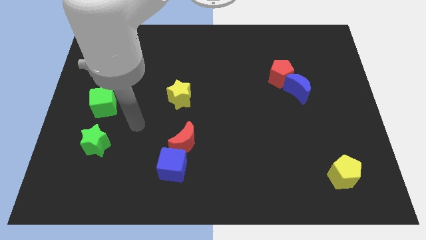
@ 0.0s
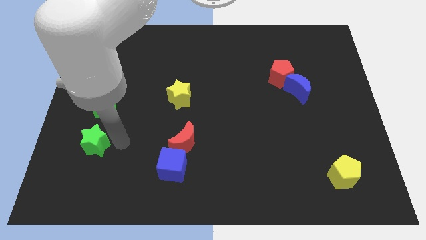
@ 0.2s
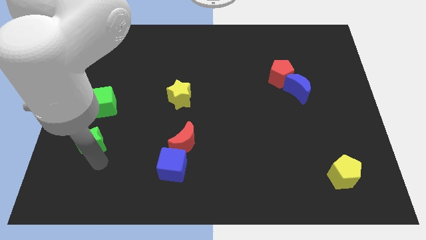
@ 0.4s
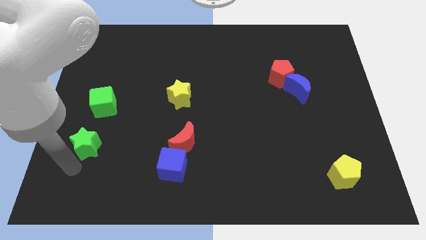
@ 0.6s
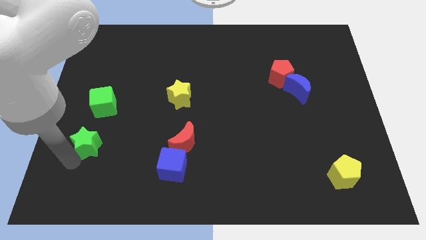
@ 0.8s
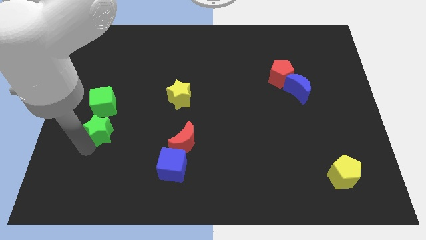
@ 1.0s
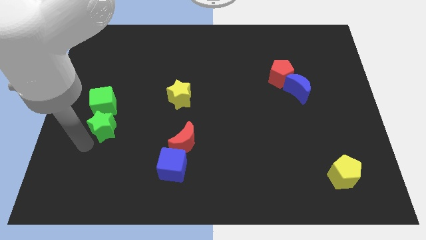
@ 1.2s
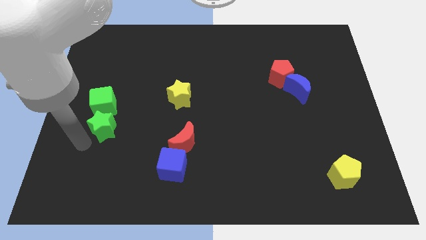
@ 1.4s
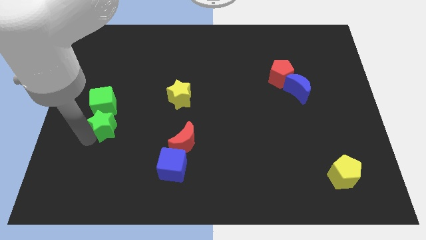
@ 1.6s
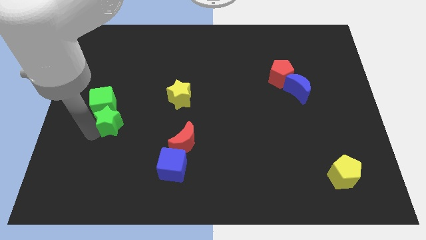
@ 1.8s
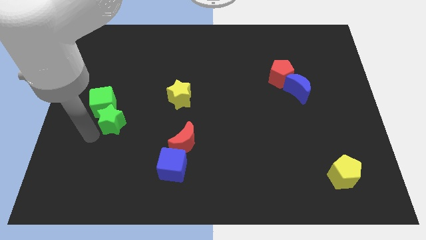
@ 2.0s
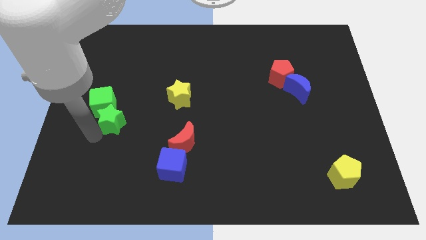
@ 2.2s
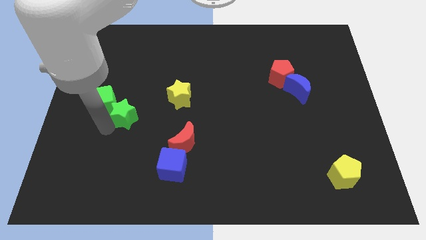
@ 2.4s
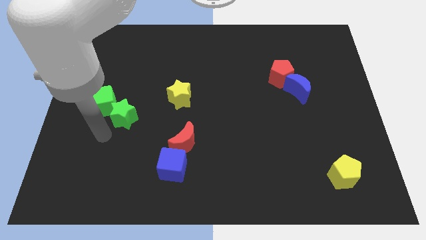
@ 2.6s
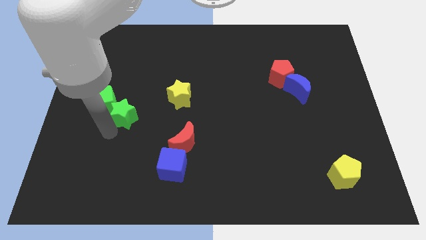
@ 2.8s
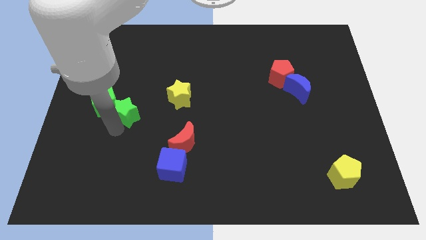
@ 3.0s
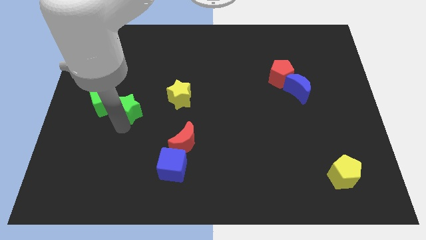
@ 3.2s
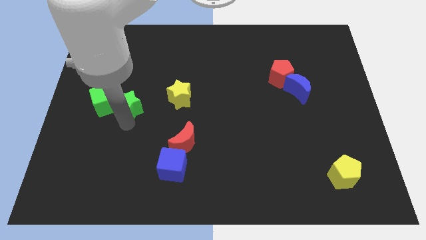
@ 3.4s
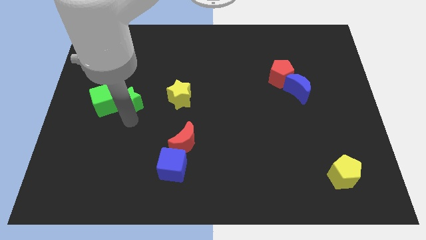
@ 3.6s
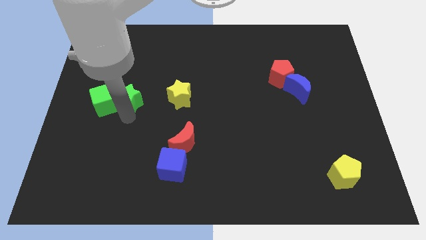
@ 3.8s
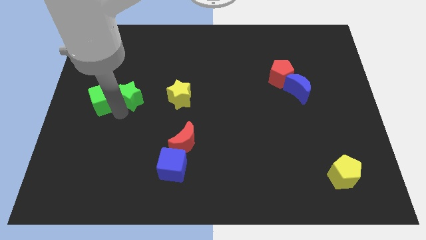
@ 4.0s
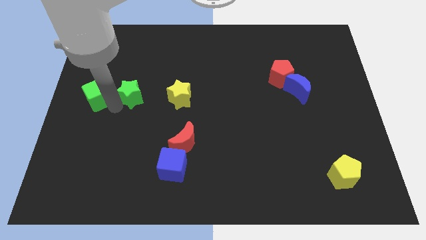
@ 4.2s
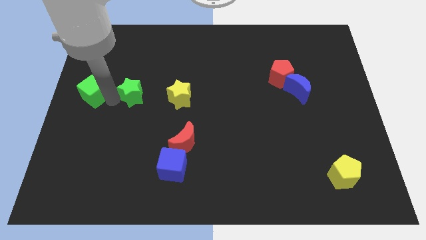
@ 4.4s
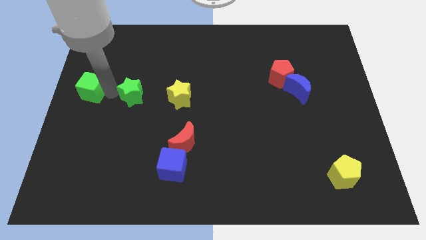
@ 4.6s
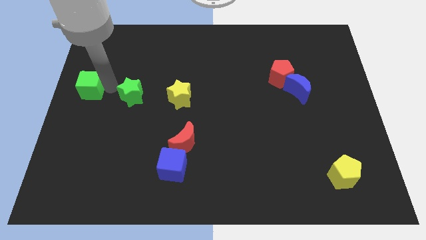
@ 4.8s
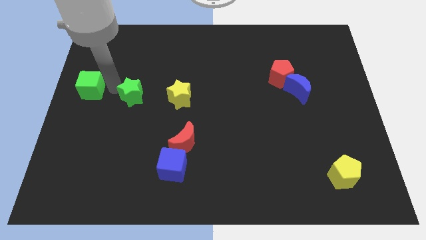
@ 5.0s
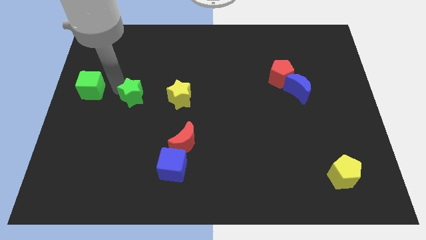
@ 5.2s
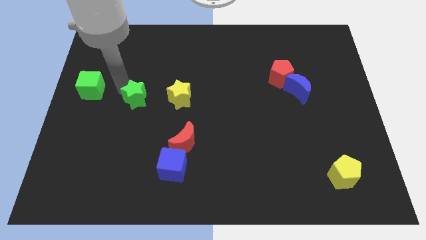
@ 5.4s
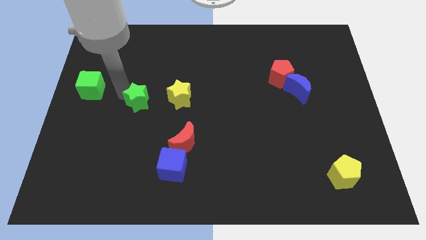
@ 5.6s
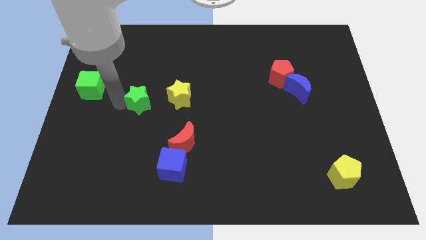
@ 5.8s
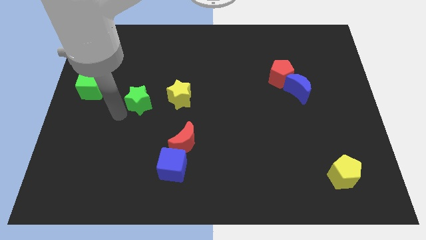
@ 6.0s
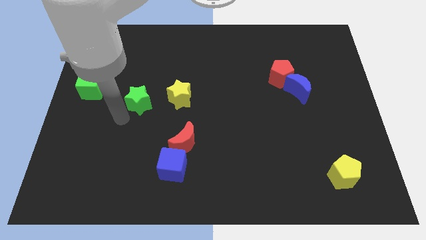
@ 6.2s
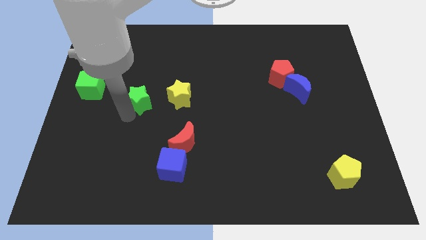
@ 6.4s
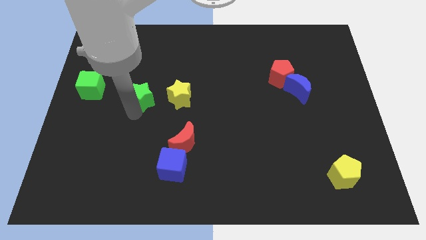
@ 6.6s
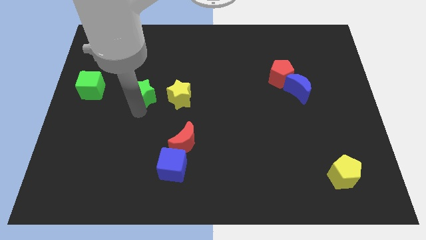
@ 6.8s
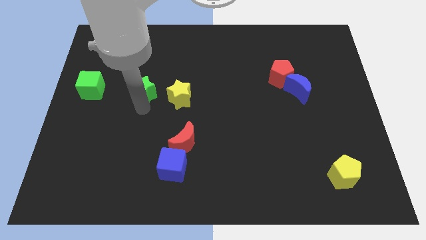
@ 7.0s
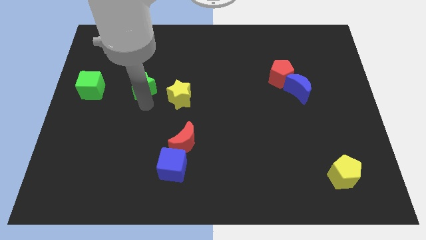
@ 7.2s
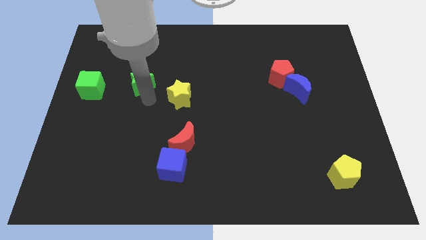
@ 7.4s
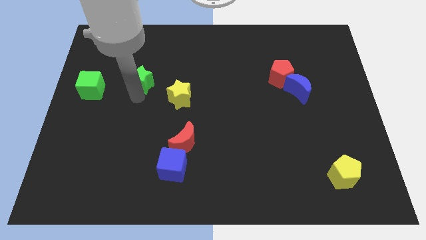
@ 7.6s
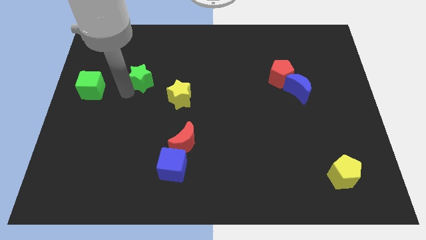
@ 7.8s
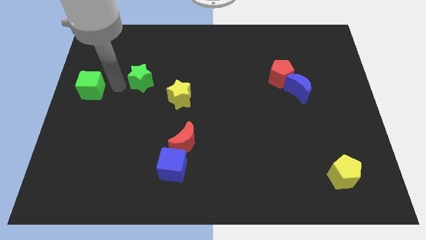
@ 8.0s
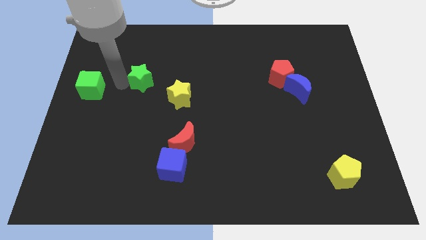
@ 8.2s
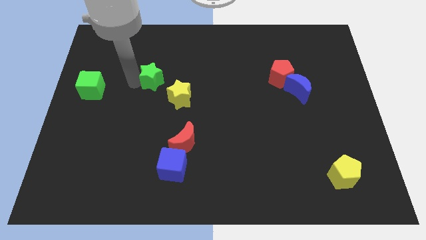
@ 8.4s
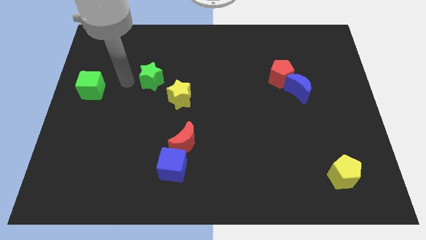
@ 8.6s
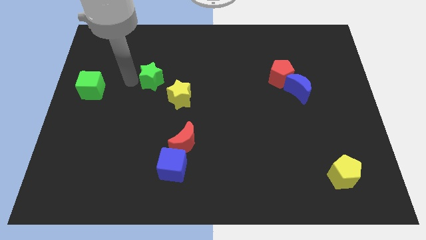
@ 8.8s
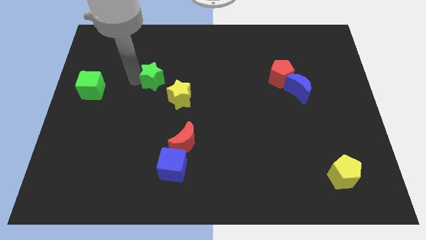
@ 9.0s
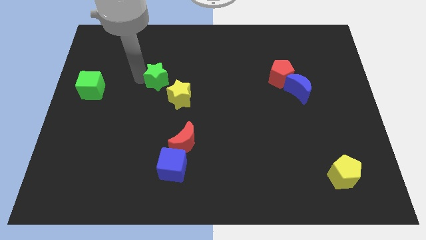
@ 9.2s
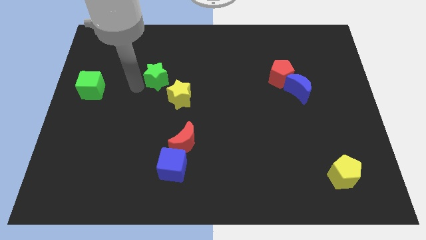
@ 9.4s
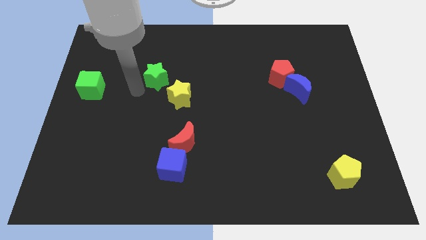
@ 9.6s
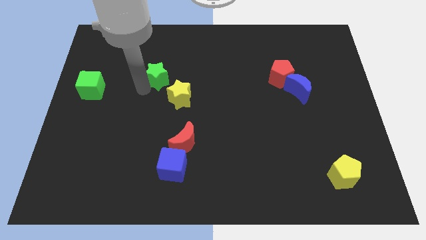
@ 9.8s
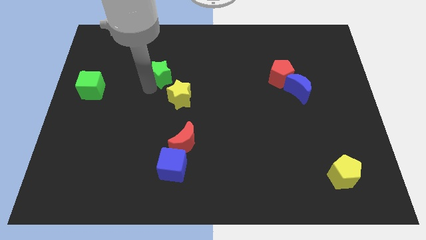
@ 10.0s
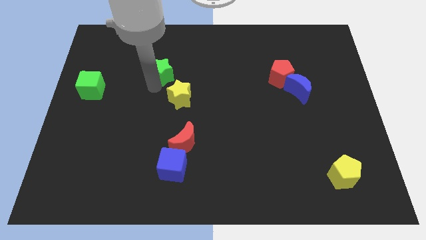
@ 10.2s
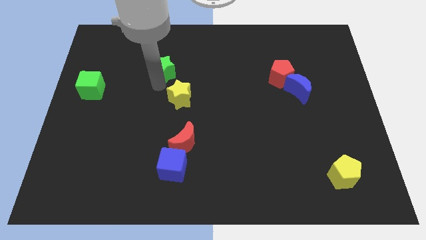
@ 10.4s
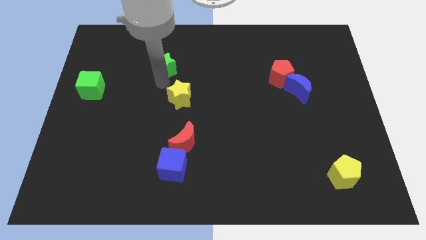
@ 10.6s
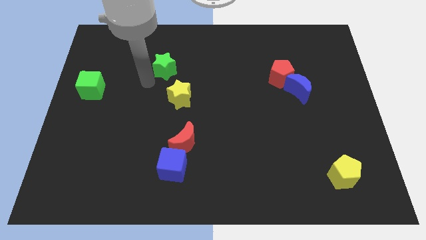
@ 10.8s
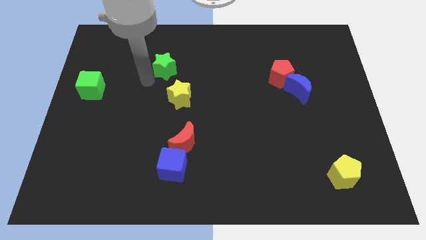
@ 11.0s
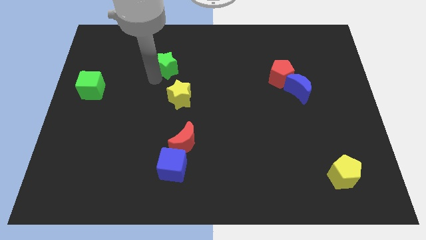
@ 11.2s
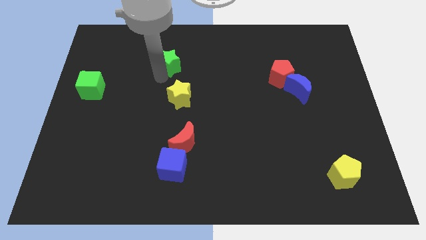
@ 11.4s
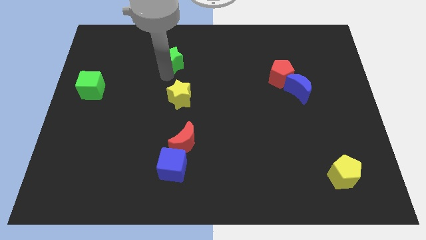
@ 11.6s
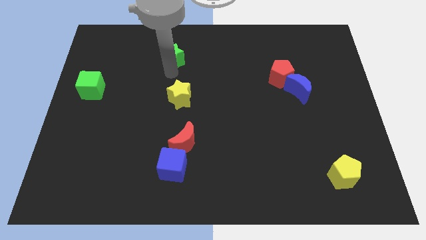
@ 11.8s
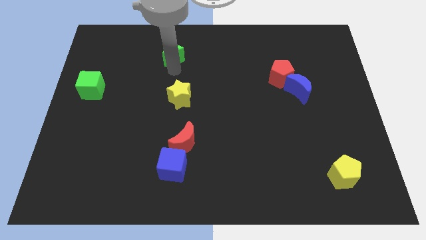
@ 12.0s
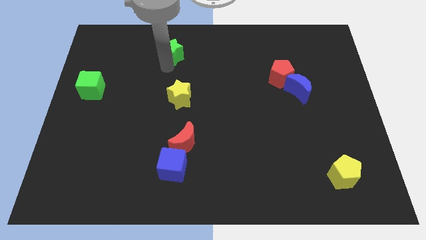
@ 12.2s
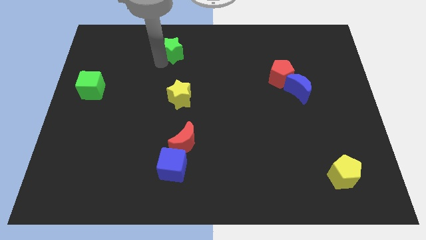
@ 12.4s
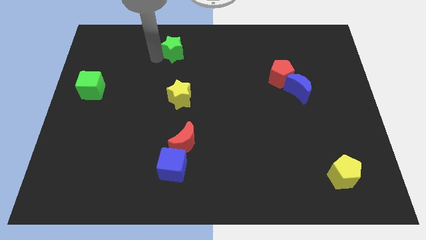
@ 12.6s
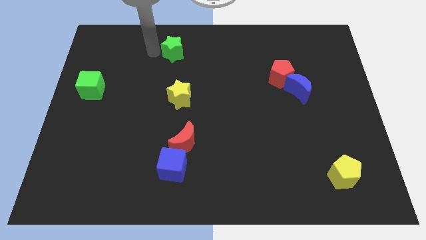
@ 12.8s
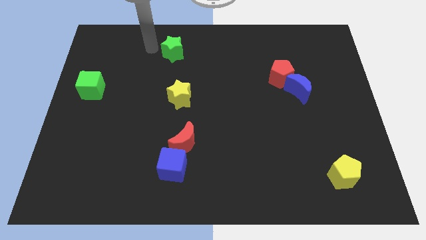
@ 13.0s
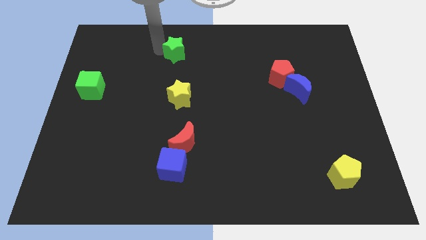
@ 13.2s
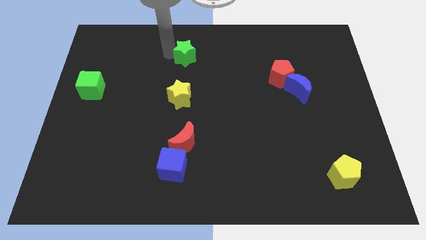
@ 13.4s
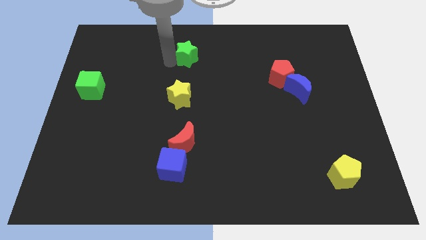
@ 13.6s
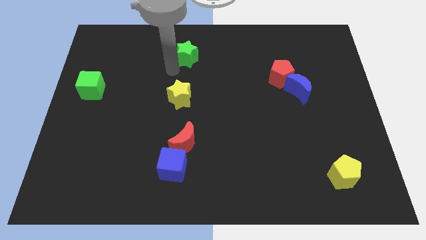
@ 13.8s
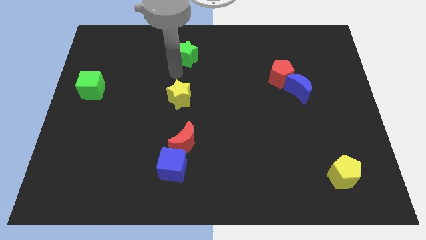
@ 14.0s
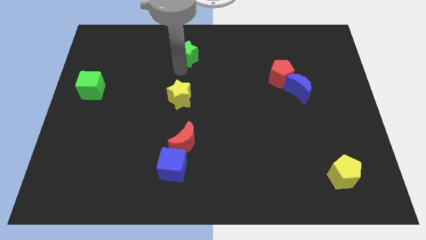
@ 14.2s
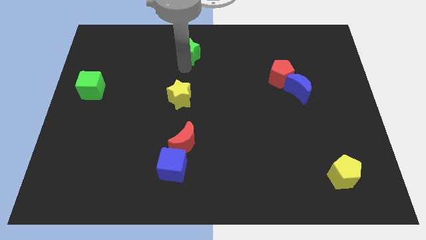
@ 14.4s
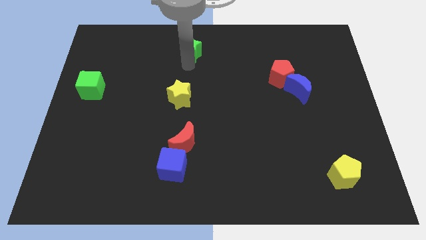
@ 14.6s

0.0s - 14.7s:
move the green star to the towards your base
